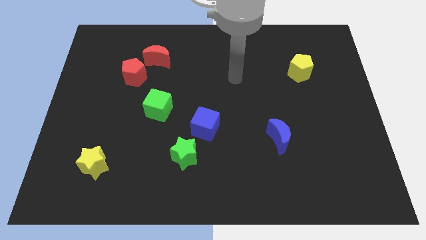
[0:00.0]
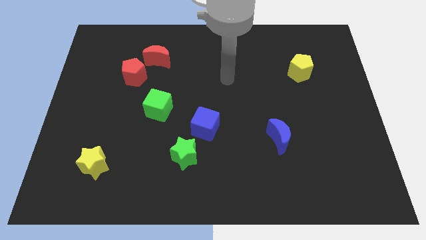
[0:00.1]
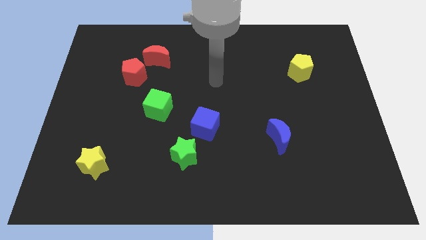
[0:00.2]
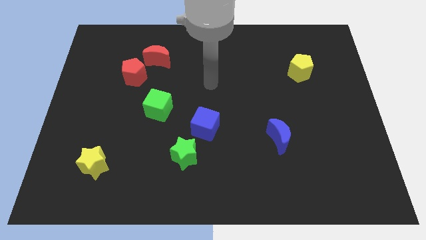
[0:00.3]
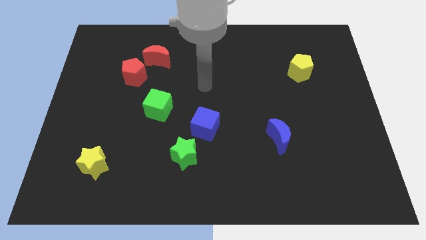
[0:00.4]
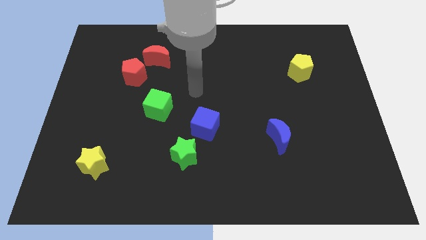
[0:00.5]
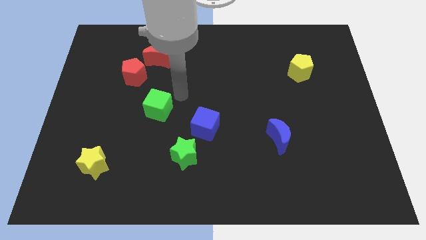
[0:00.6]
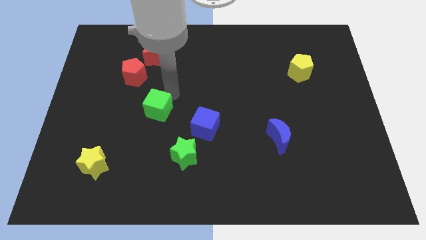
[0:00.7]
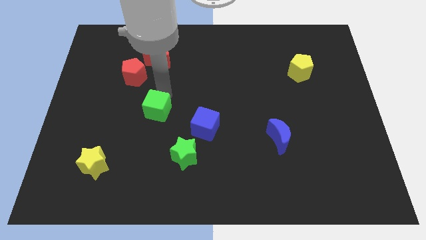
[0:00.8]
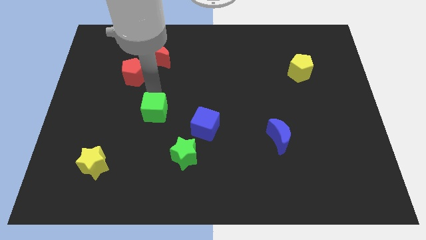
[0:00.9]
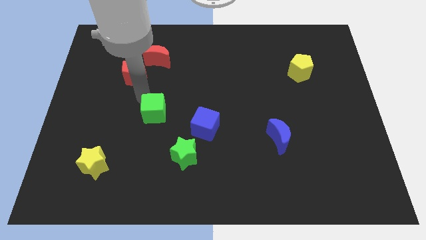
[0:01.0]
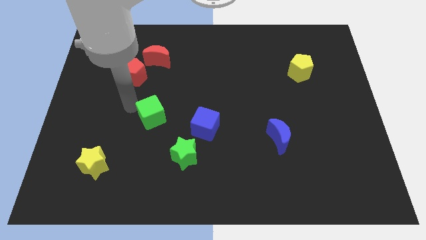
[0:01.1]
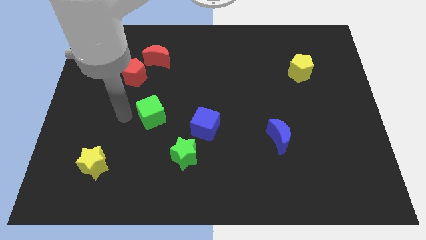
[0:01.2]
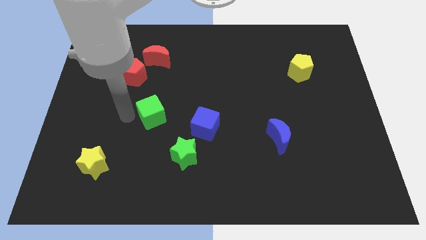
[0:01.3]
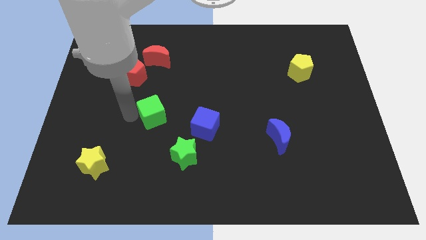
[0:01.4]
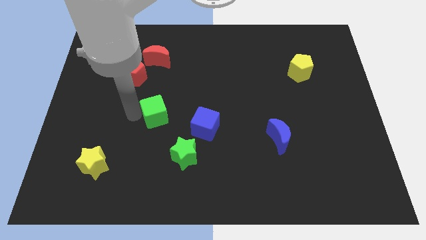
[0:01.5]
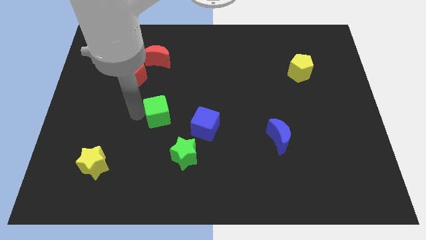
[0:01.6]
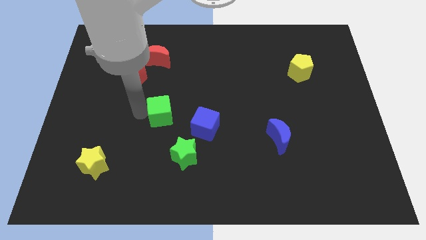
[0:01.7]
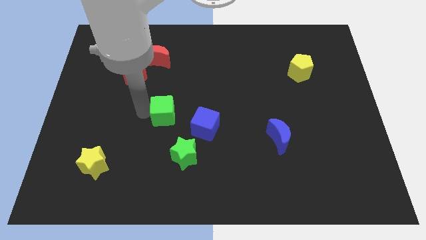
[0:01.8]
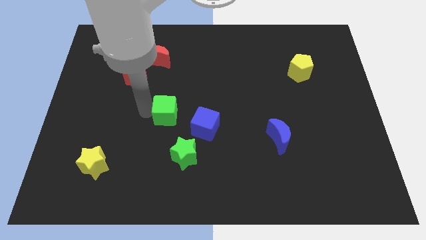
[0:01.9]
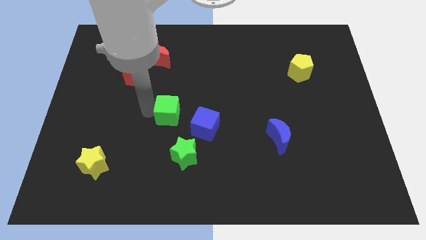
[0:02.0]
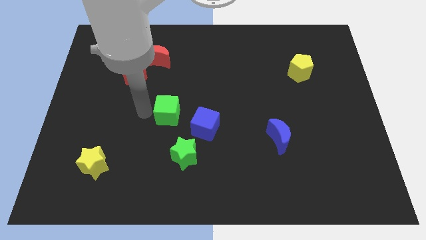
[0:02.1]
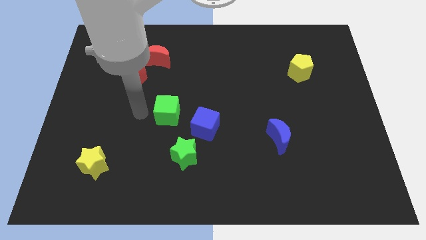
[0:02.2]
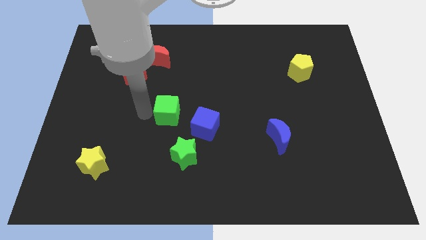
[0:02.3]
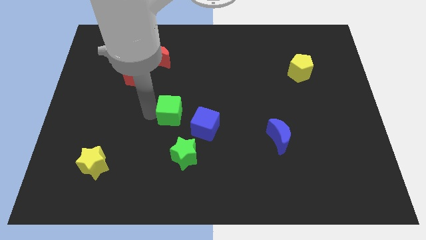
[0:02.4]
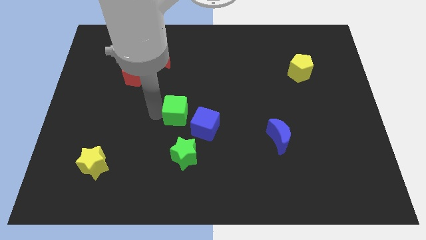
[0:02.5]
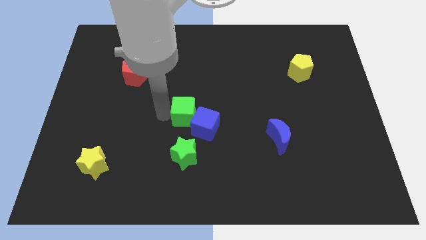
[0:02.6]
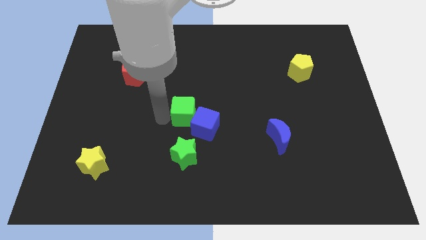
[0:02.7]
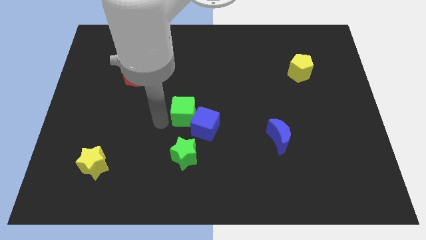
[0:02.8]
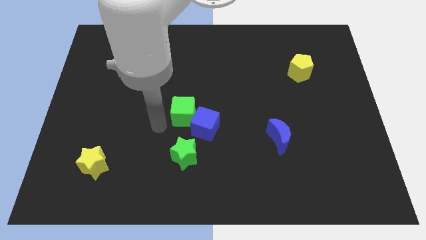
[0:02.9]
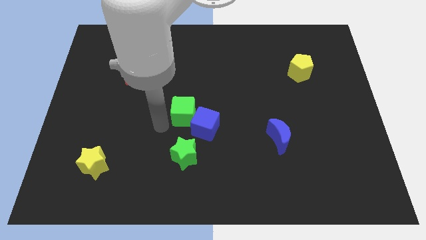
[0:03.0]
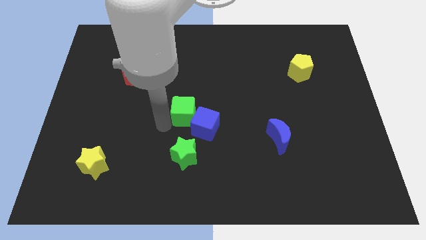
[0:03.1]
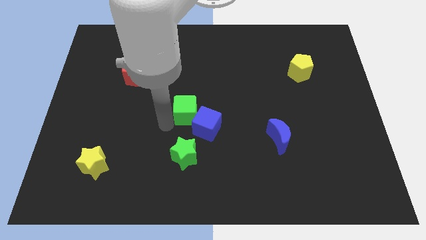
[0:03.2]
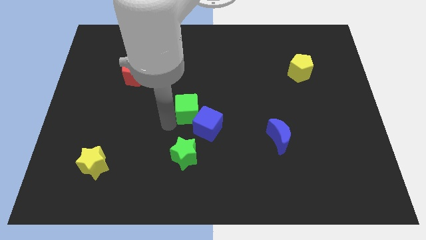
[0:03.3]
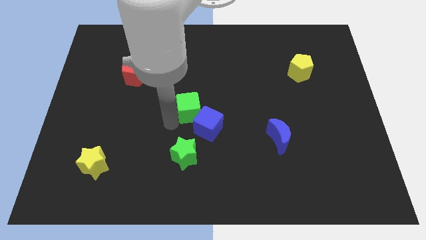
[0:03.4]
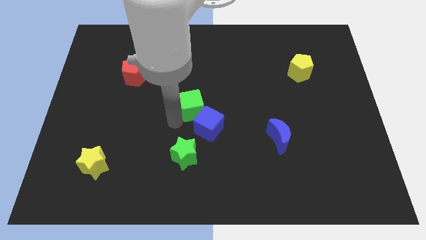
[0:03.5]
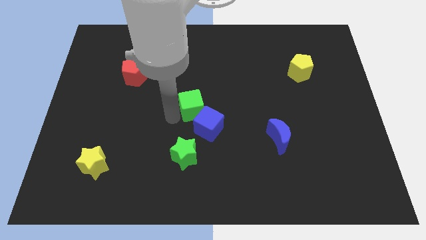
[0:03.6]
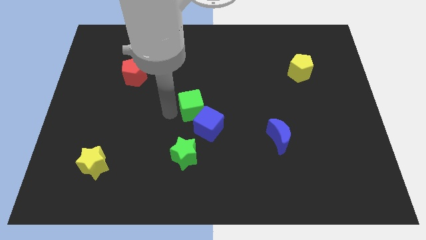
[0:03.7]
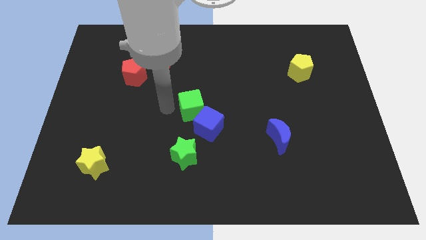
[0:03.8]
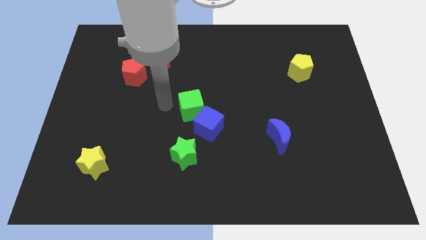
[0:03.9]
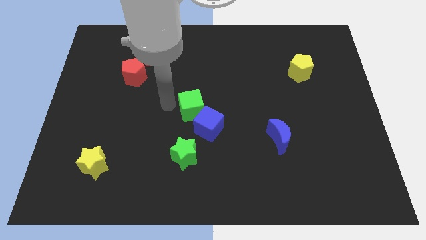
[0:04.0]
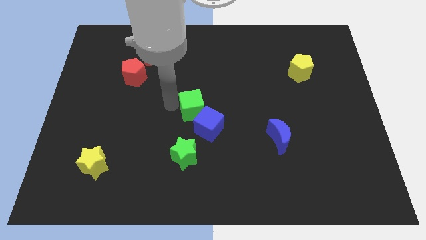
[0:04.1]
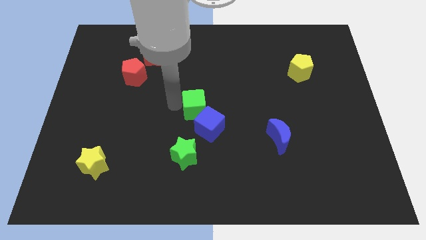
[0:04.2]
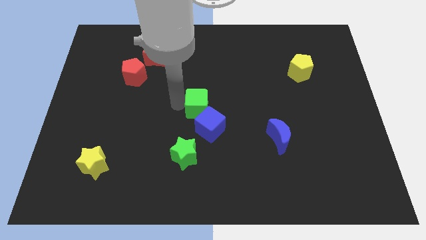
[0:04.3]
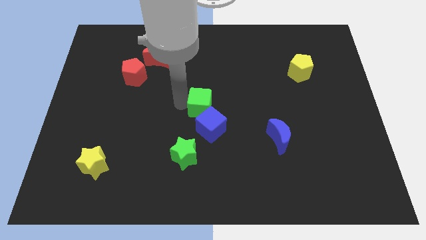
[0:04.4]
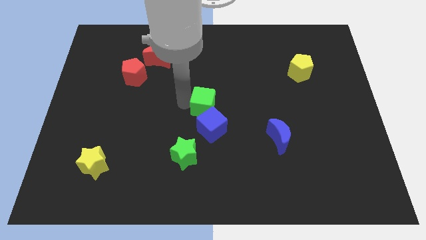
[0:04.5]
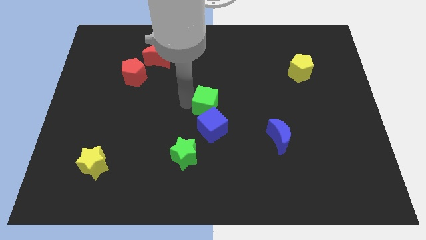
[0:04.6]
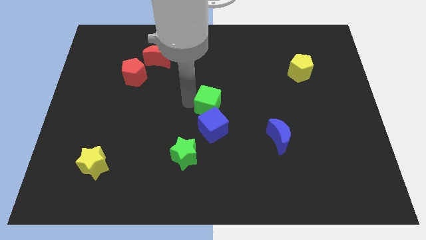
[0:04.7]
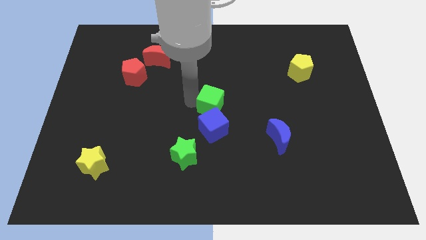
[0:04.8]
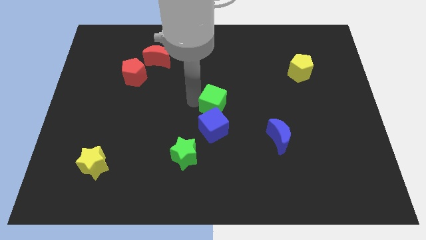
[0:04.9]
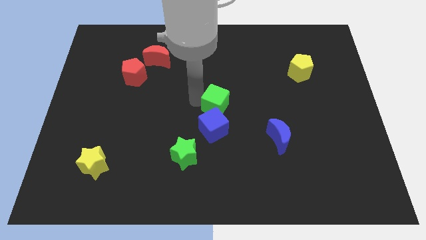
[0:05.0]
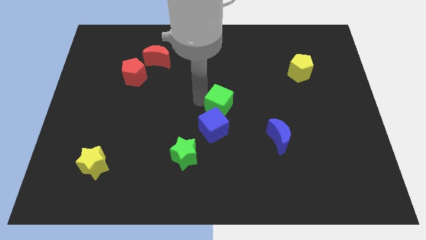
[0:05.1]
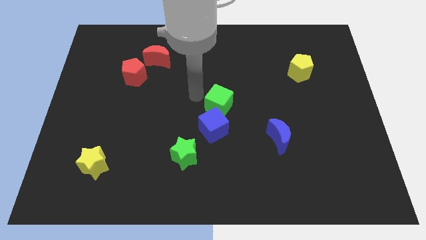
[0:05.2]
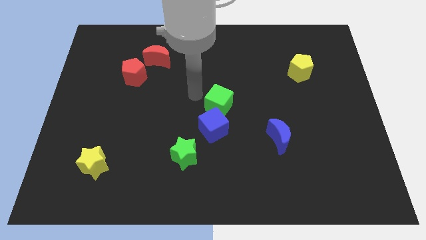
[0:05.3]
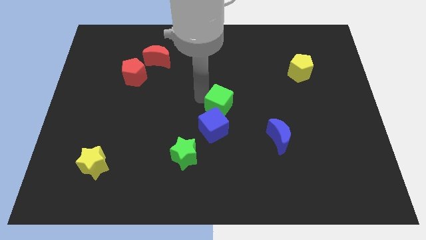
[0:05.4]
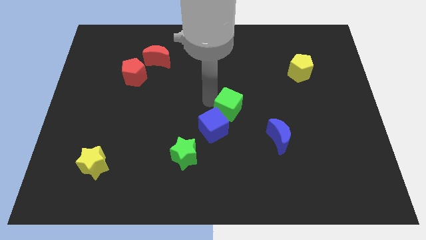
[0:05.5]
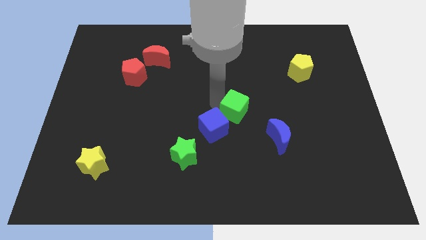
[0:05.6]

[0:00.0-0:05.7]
put the green cube to the top left side of the blue moon
